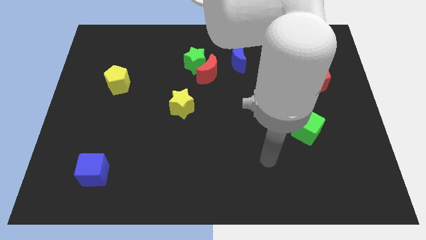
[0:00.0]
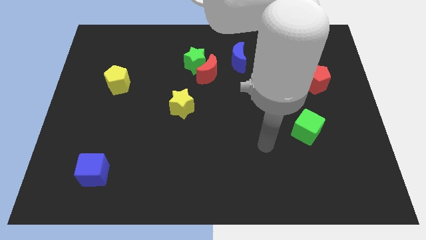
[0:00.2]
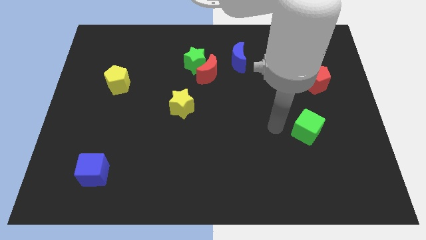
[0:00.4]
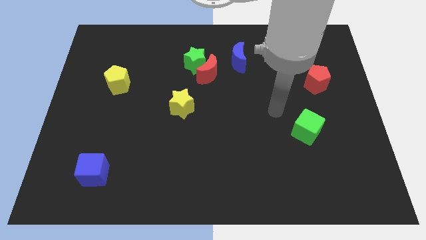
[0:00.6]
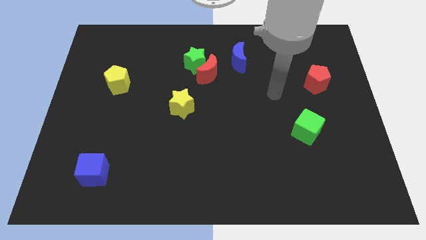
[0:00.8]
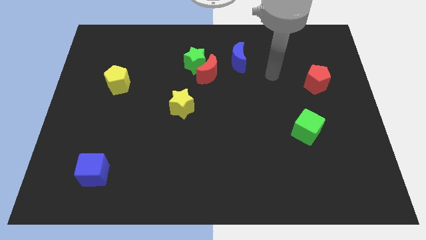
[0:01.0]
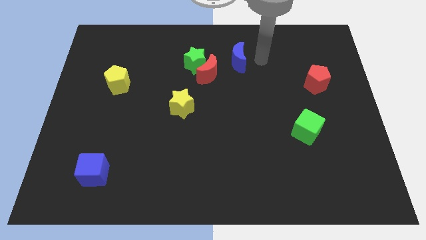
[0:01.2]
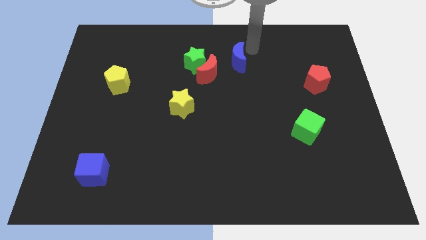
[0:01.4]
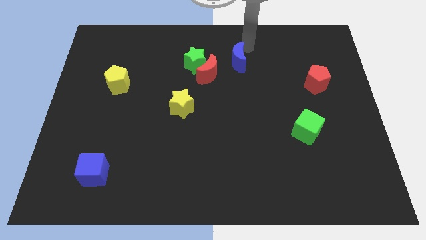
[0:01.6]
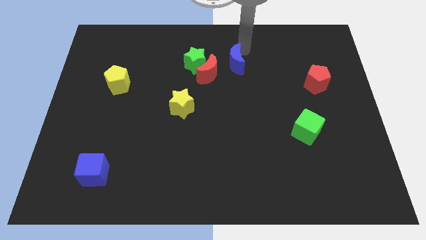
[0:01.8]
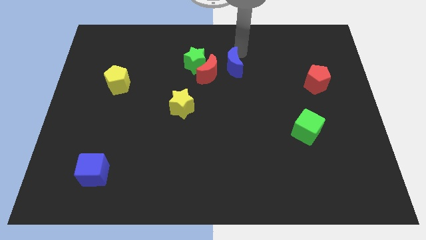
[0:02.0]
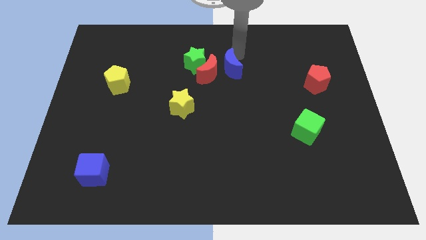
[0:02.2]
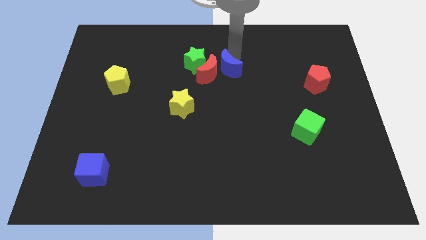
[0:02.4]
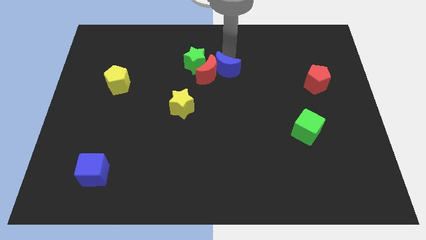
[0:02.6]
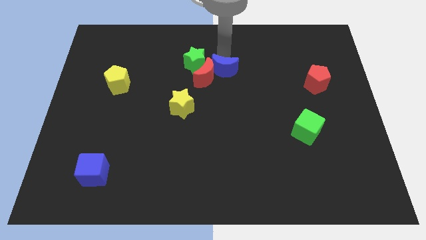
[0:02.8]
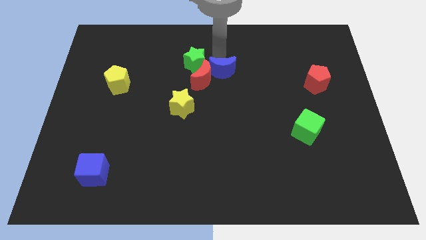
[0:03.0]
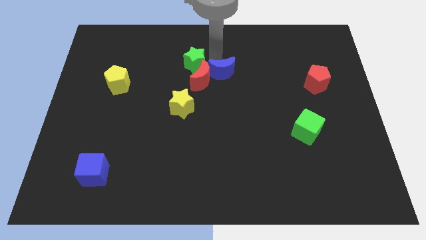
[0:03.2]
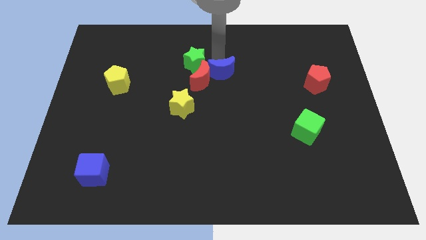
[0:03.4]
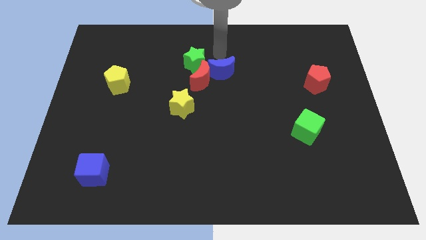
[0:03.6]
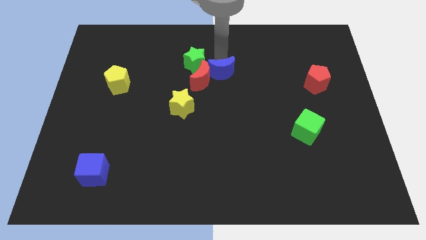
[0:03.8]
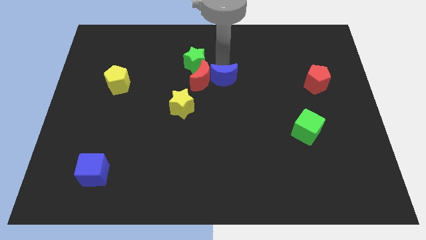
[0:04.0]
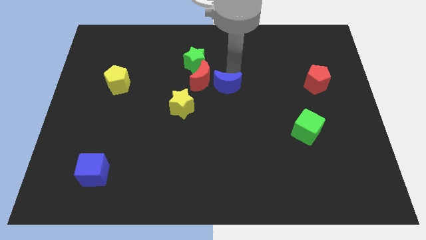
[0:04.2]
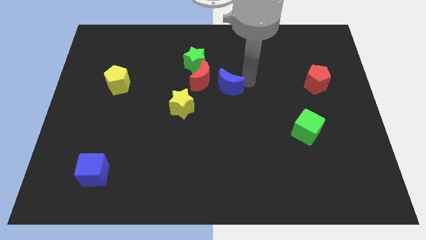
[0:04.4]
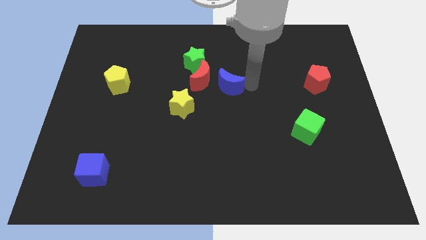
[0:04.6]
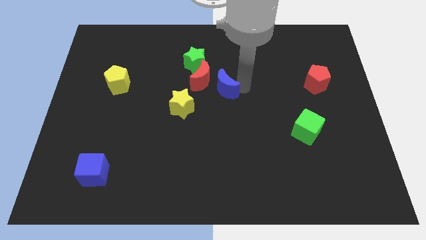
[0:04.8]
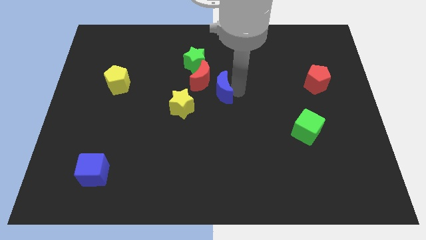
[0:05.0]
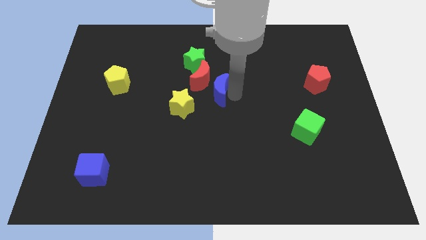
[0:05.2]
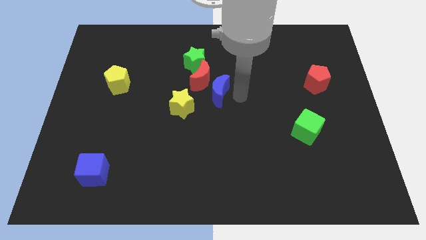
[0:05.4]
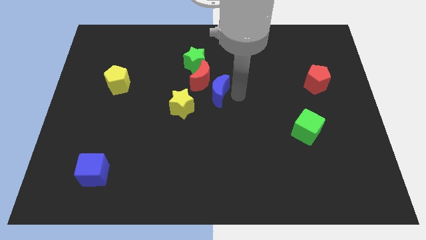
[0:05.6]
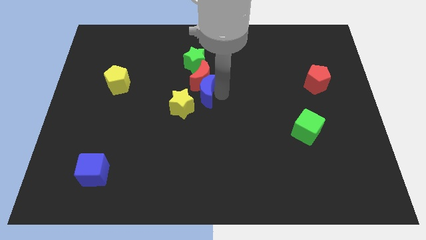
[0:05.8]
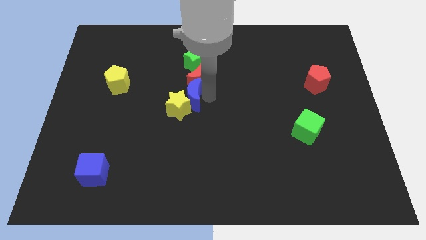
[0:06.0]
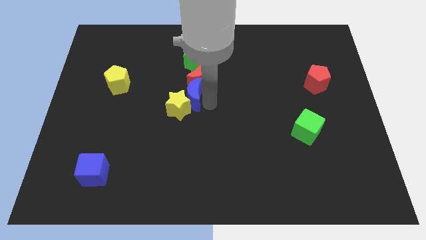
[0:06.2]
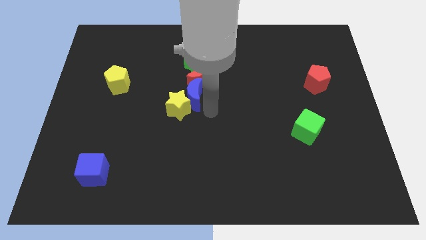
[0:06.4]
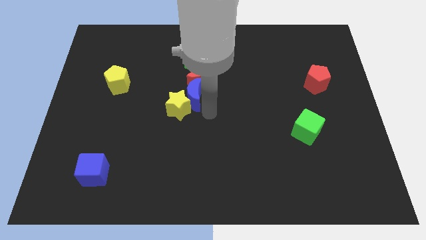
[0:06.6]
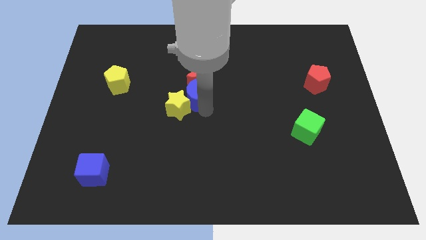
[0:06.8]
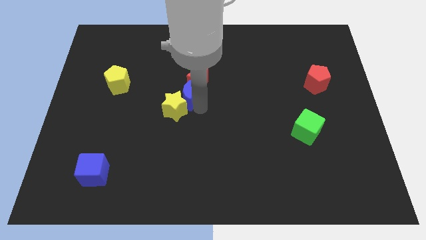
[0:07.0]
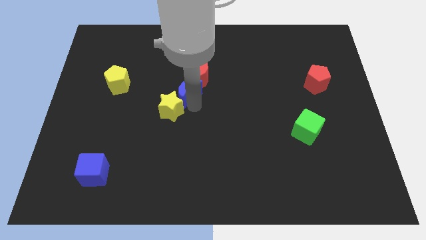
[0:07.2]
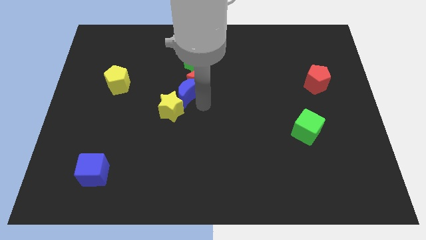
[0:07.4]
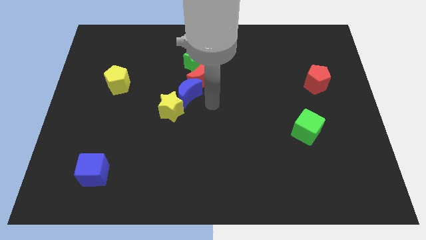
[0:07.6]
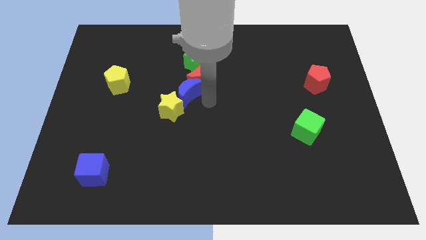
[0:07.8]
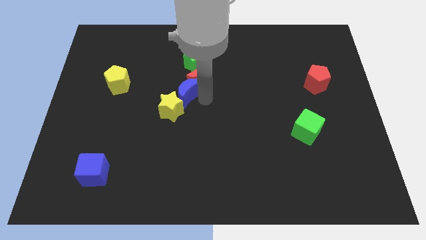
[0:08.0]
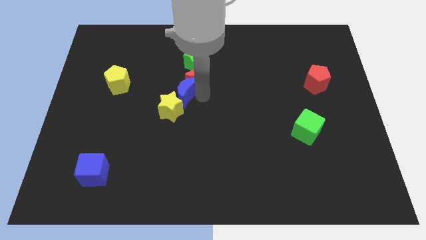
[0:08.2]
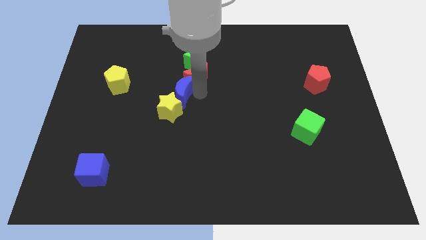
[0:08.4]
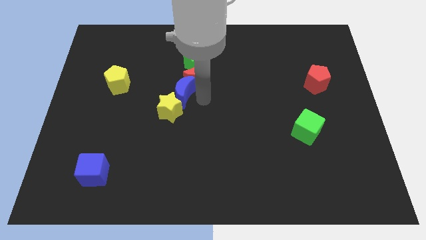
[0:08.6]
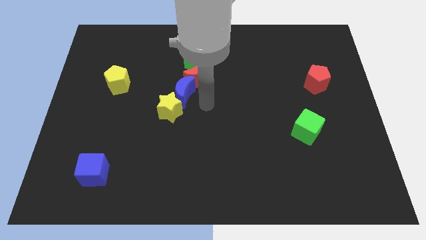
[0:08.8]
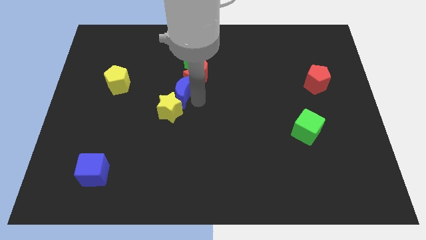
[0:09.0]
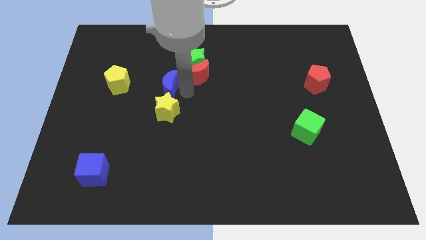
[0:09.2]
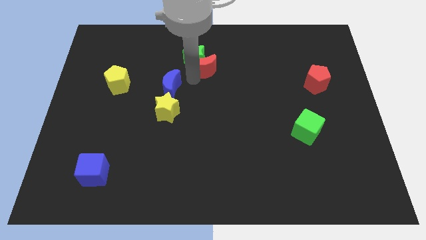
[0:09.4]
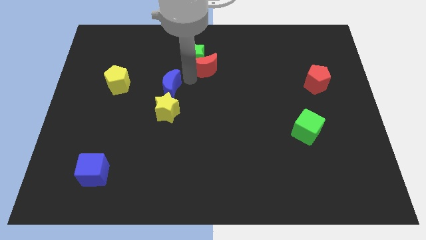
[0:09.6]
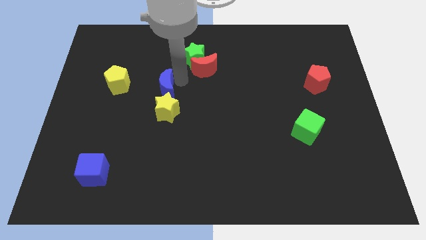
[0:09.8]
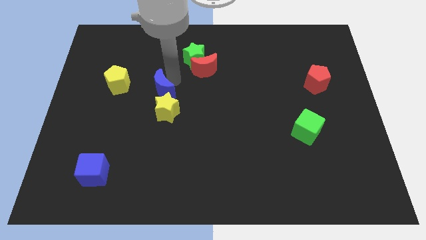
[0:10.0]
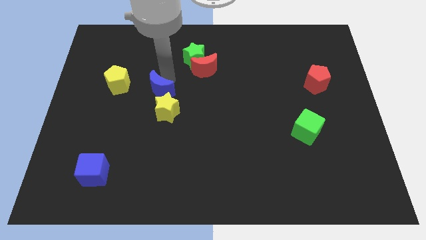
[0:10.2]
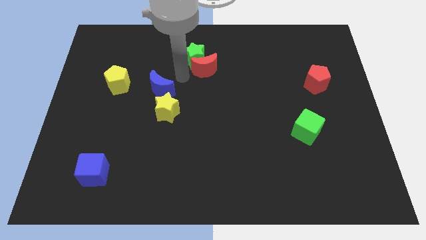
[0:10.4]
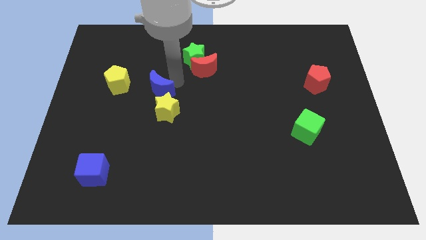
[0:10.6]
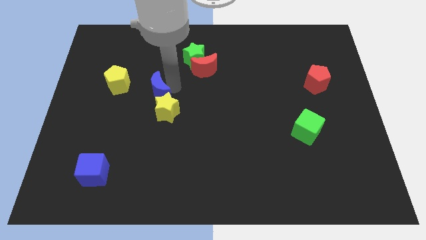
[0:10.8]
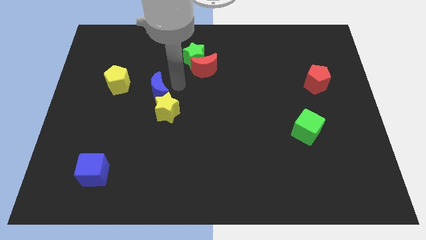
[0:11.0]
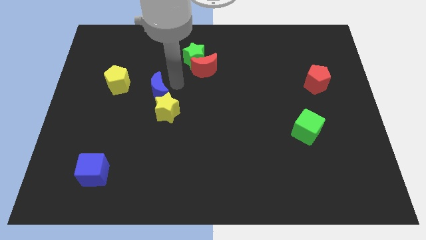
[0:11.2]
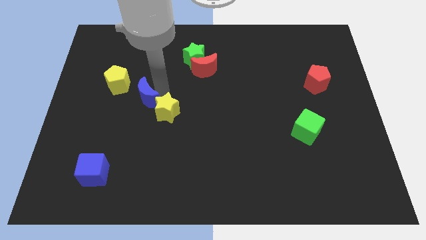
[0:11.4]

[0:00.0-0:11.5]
move the blue moon to the left of the yellow star
